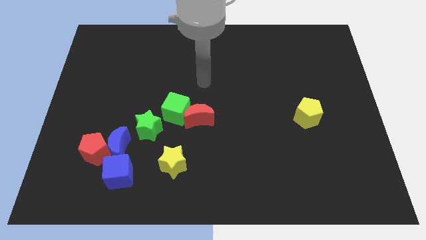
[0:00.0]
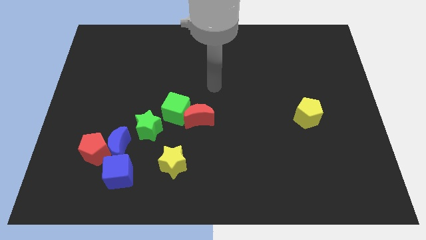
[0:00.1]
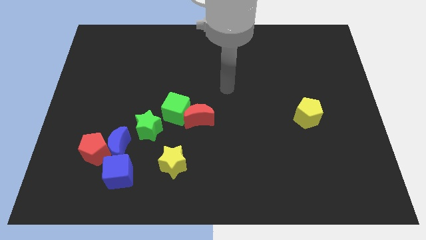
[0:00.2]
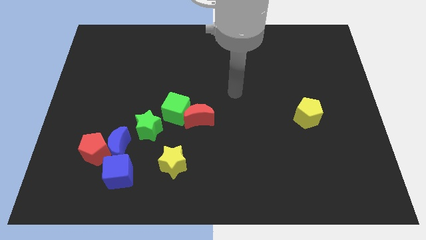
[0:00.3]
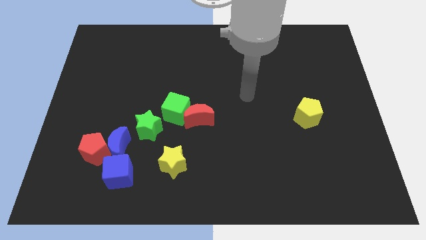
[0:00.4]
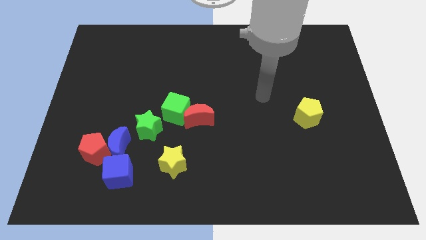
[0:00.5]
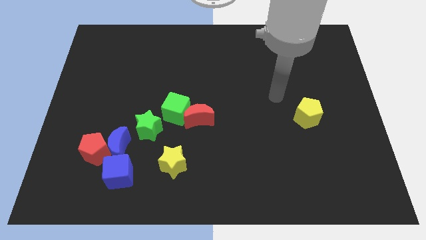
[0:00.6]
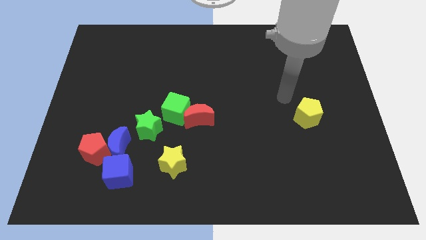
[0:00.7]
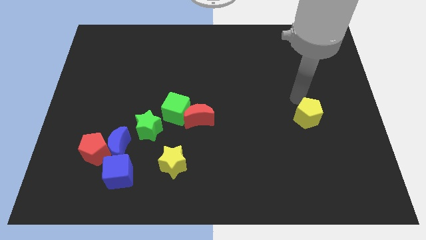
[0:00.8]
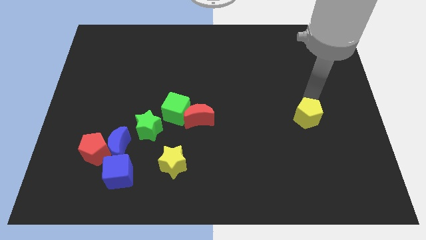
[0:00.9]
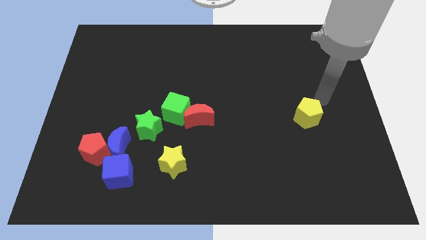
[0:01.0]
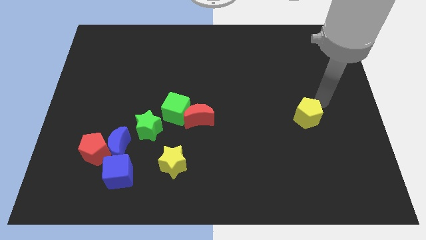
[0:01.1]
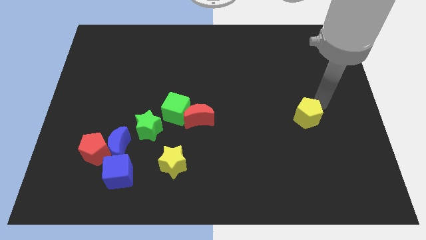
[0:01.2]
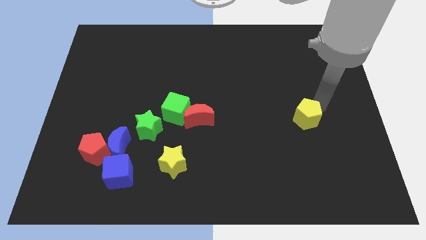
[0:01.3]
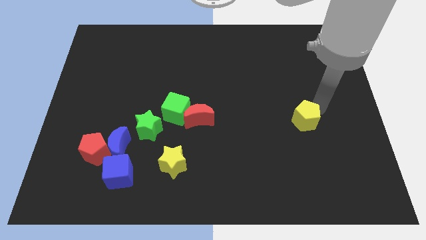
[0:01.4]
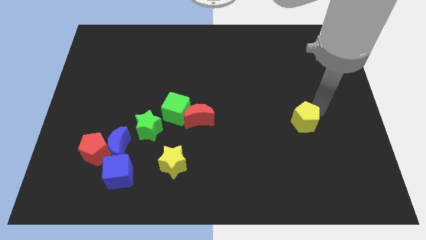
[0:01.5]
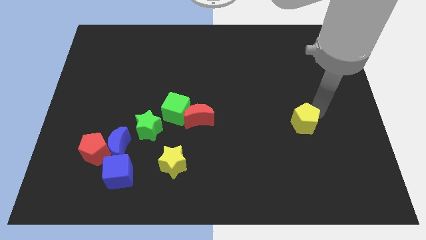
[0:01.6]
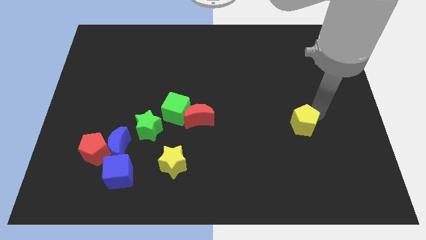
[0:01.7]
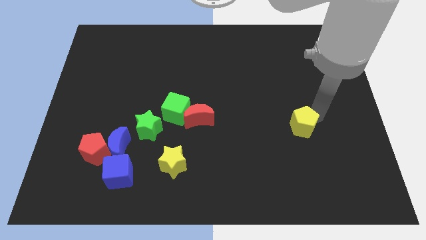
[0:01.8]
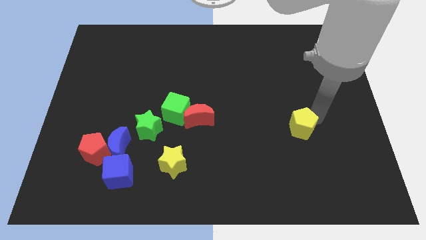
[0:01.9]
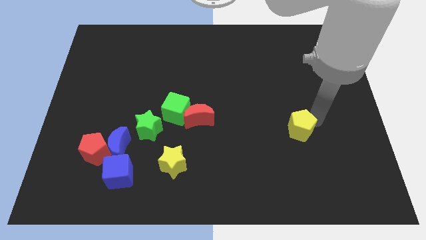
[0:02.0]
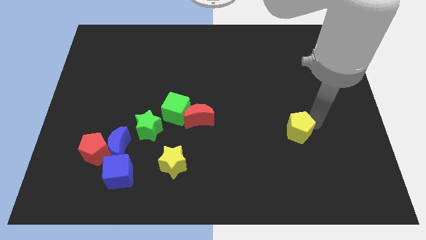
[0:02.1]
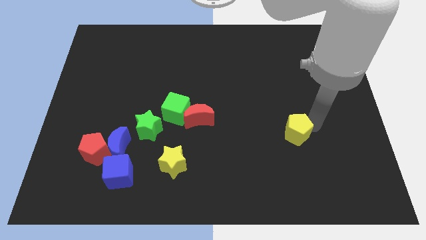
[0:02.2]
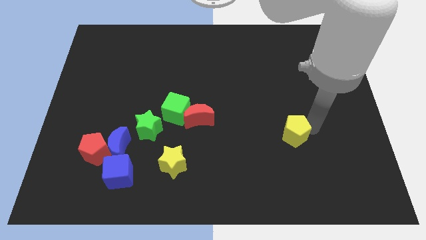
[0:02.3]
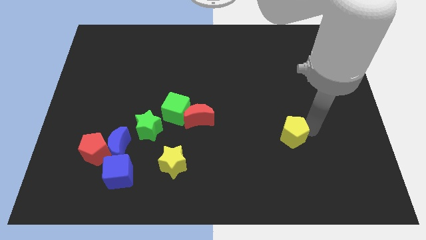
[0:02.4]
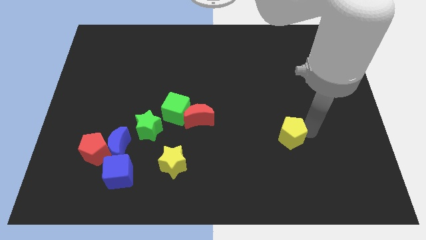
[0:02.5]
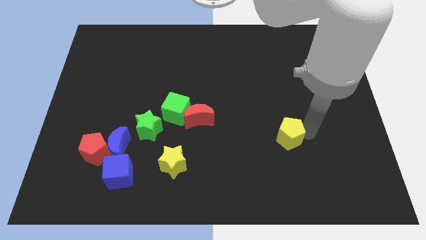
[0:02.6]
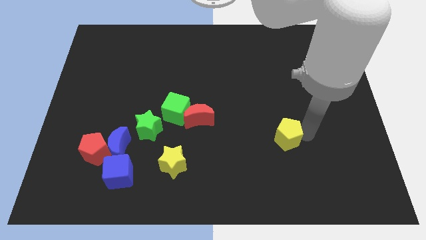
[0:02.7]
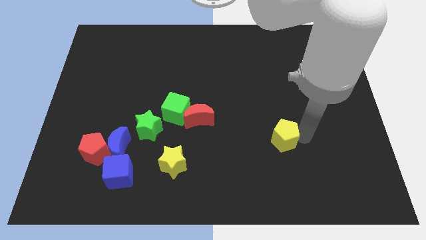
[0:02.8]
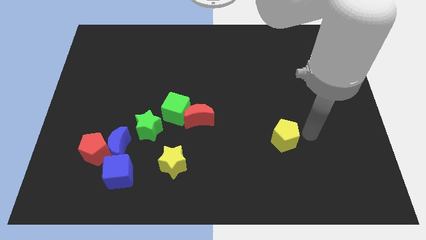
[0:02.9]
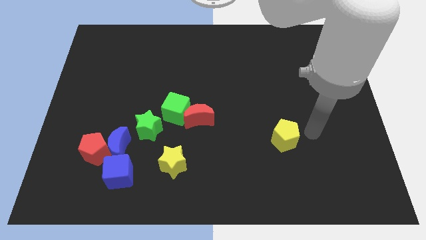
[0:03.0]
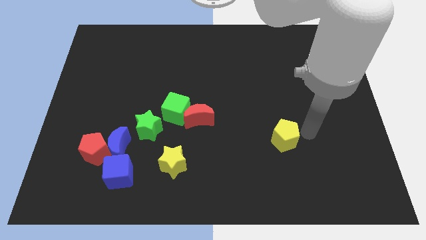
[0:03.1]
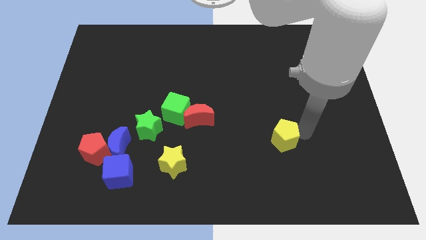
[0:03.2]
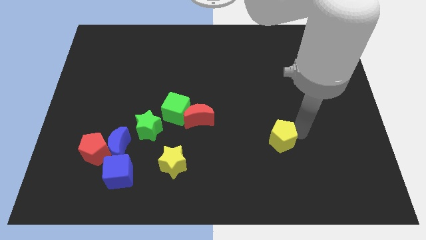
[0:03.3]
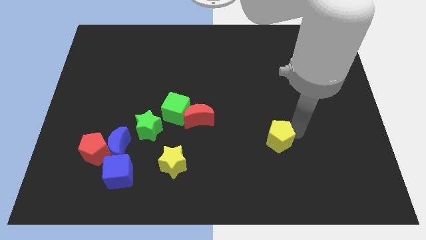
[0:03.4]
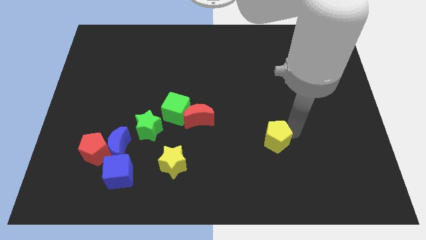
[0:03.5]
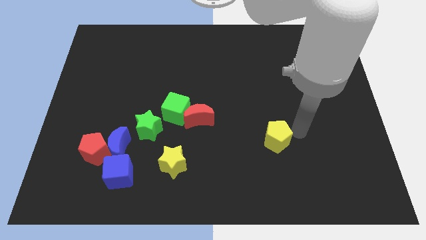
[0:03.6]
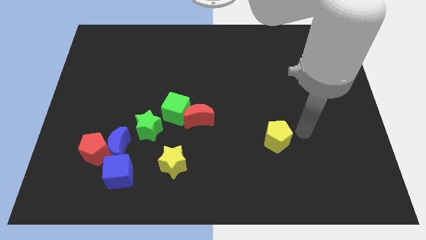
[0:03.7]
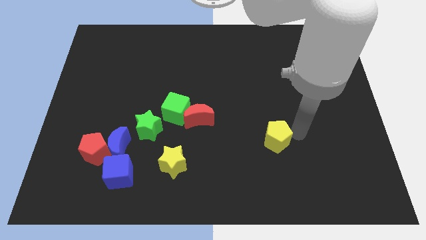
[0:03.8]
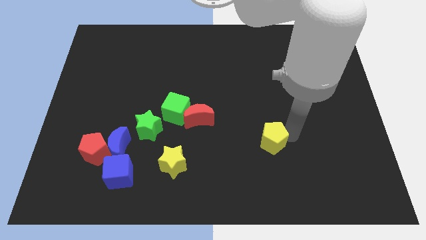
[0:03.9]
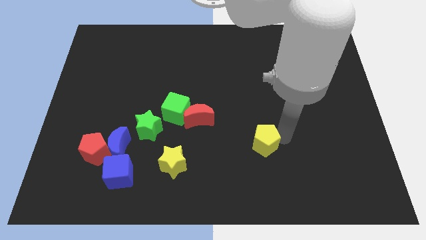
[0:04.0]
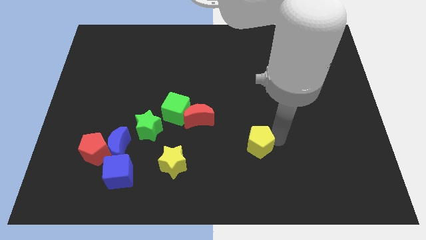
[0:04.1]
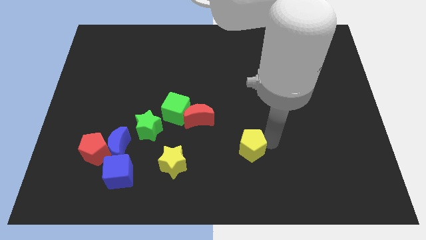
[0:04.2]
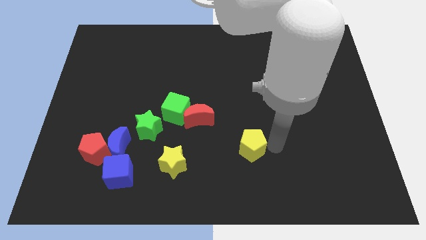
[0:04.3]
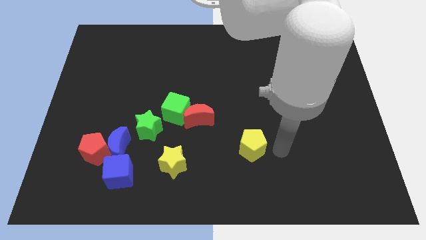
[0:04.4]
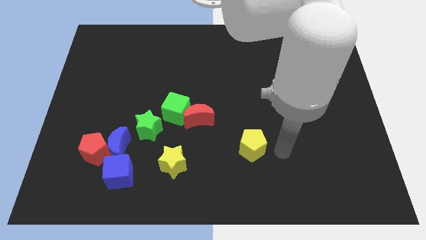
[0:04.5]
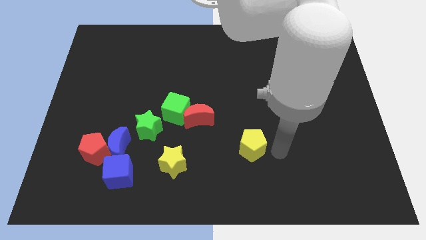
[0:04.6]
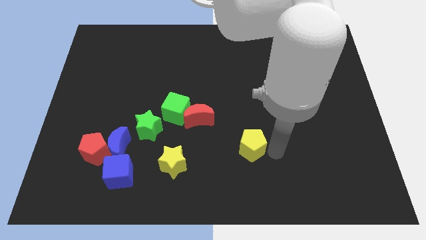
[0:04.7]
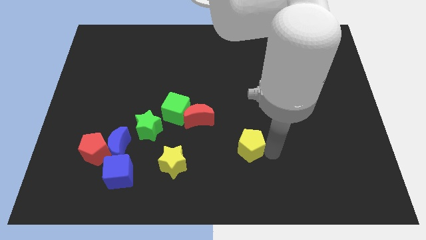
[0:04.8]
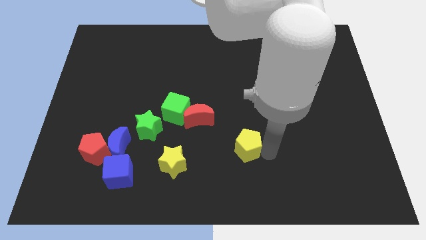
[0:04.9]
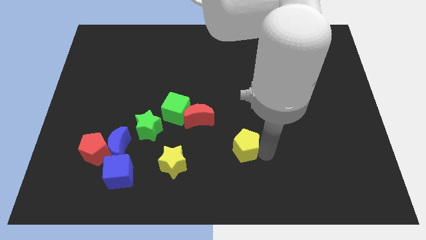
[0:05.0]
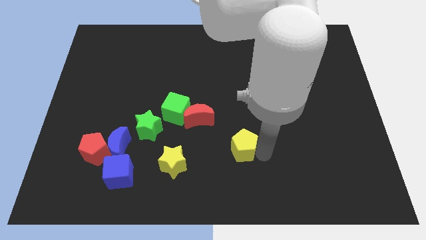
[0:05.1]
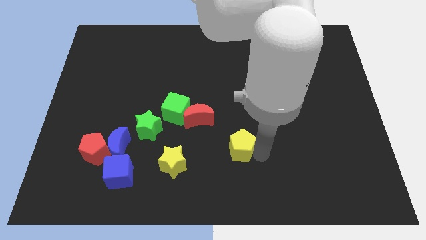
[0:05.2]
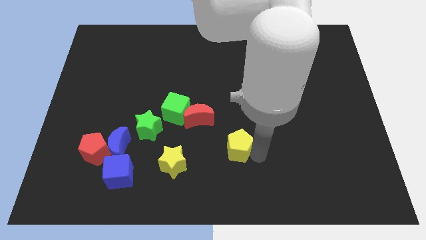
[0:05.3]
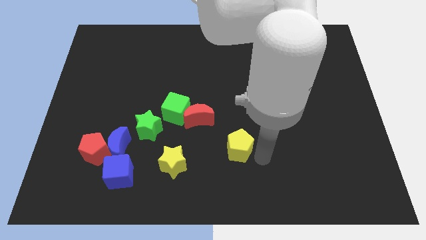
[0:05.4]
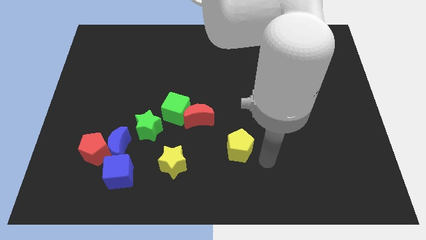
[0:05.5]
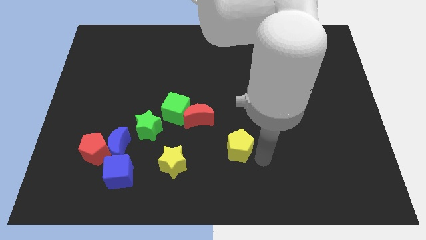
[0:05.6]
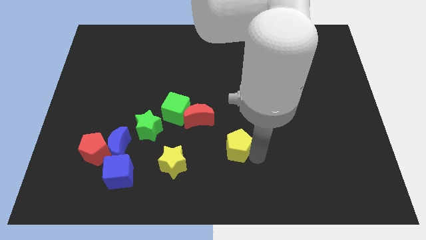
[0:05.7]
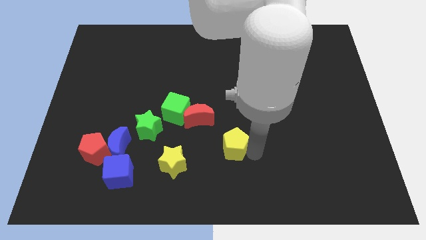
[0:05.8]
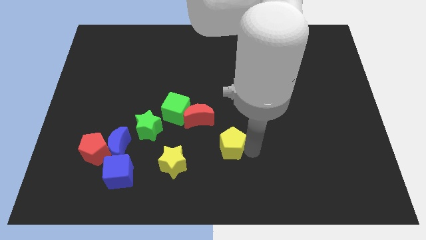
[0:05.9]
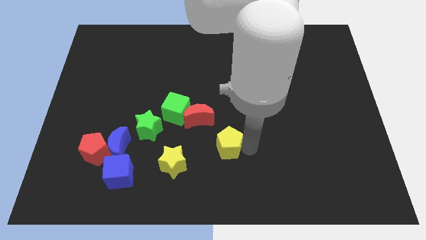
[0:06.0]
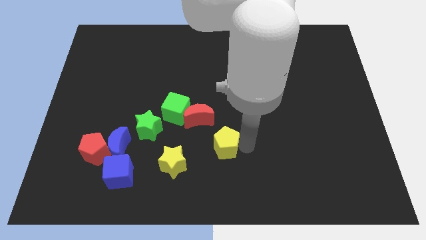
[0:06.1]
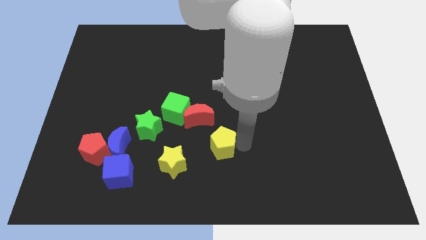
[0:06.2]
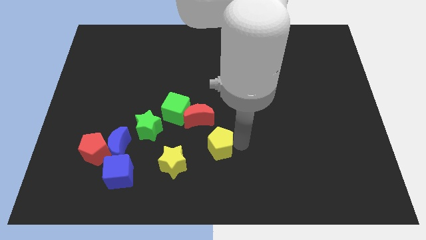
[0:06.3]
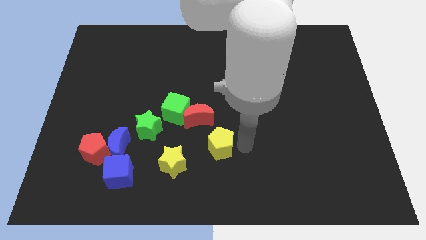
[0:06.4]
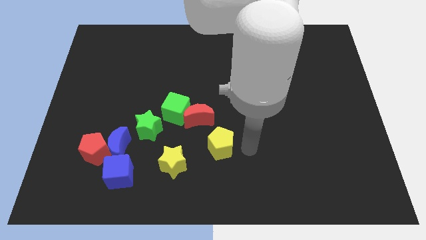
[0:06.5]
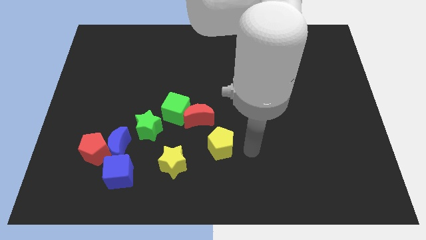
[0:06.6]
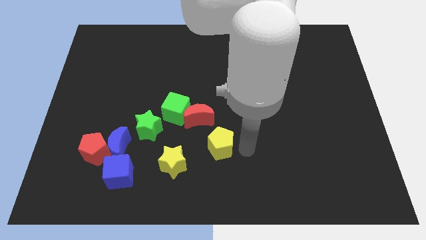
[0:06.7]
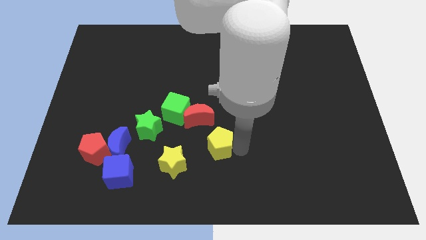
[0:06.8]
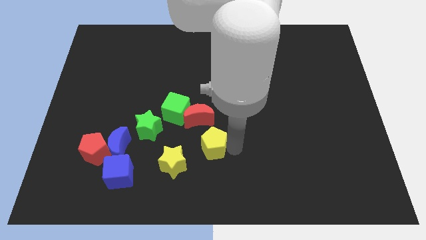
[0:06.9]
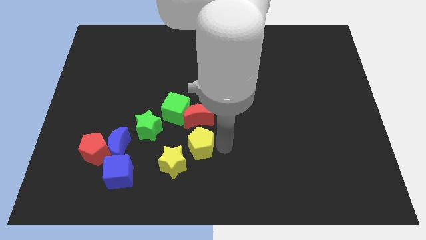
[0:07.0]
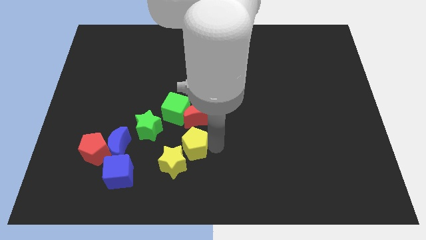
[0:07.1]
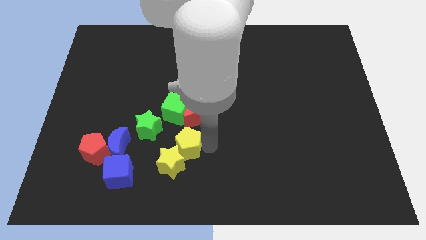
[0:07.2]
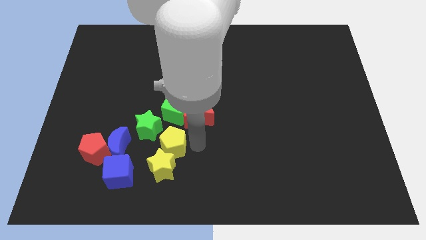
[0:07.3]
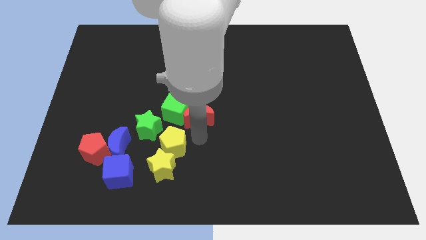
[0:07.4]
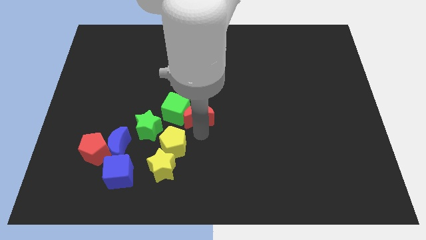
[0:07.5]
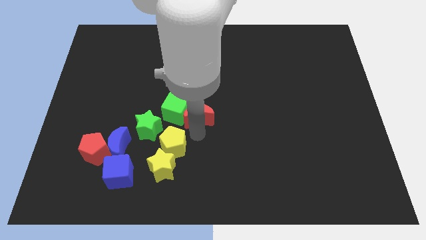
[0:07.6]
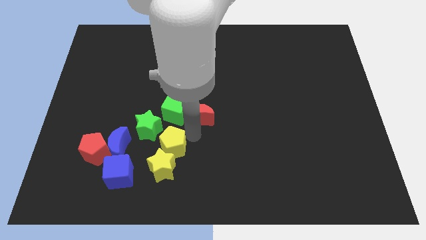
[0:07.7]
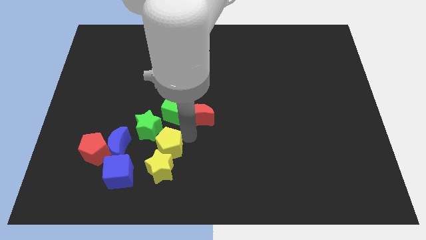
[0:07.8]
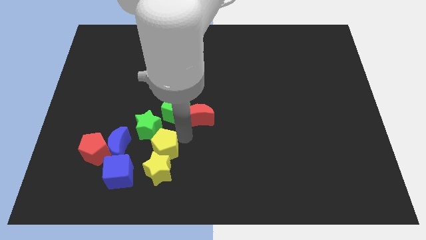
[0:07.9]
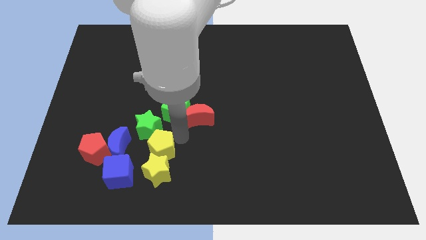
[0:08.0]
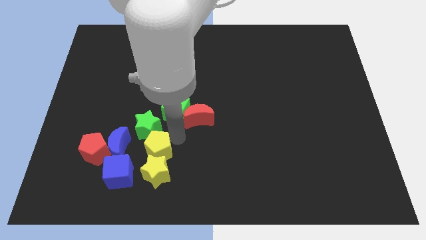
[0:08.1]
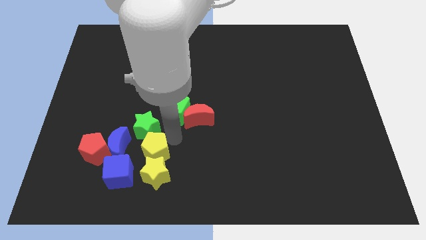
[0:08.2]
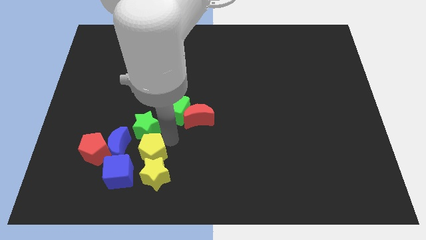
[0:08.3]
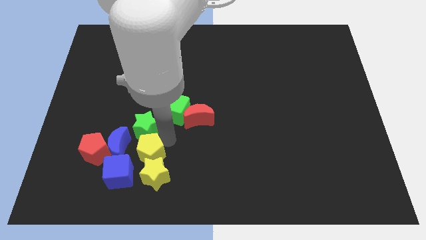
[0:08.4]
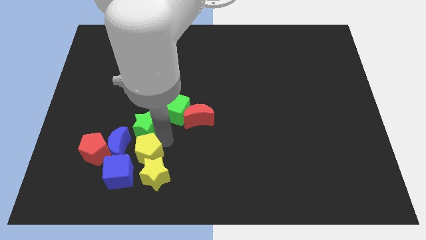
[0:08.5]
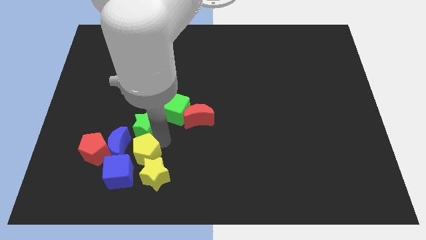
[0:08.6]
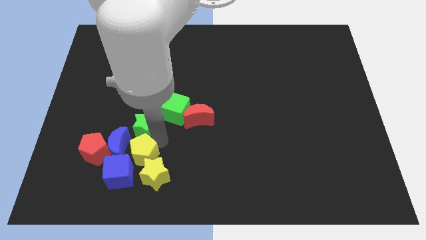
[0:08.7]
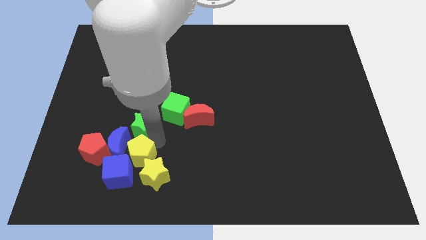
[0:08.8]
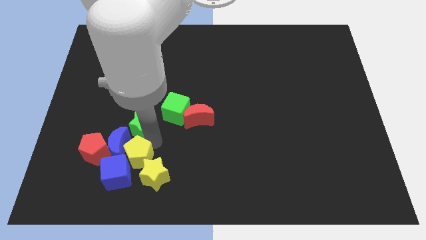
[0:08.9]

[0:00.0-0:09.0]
put the yellow pentagon to the blue cube
